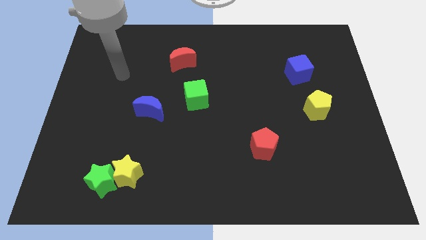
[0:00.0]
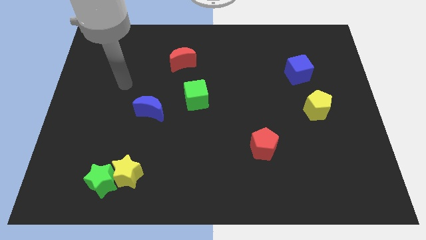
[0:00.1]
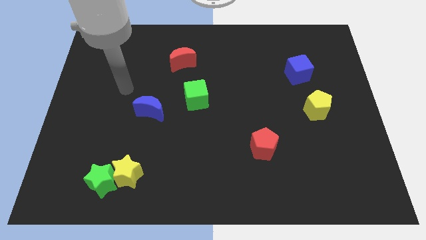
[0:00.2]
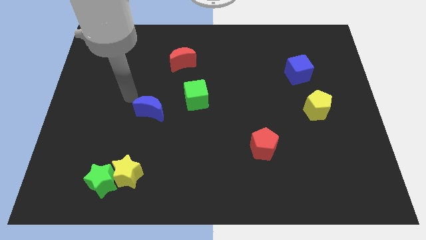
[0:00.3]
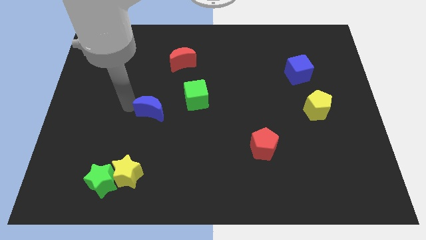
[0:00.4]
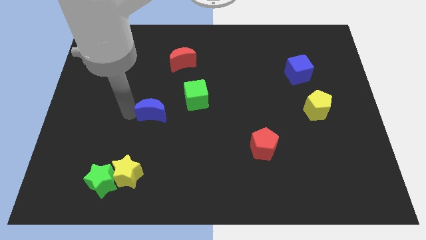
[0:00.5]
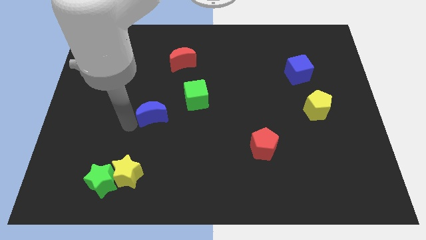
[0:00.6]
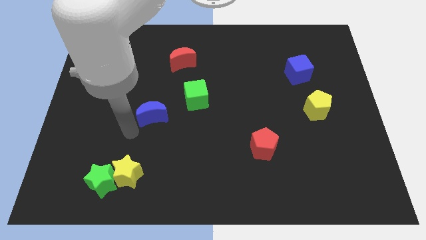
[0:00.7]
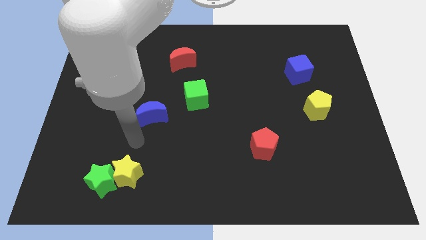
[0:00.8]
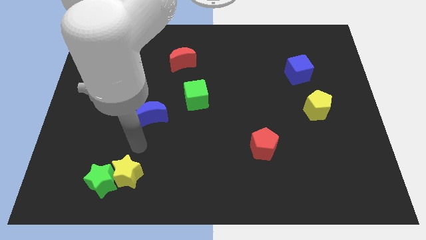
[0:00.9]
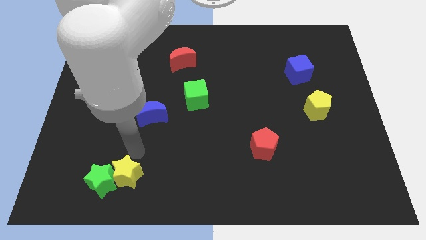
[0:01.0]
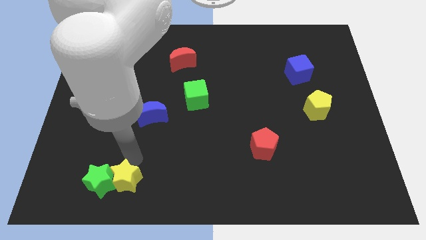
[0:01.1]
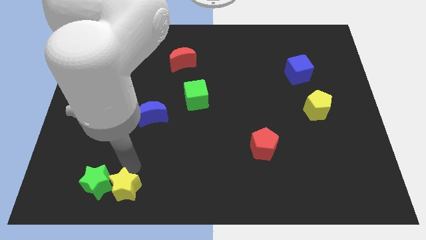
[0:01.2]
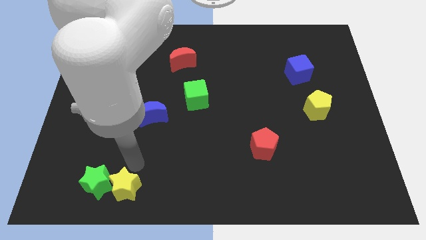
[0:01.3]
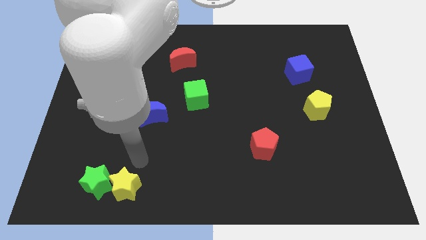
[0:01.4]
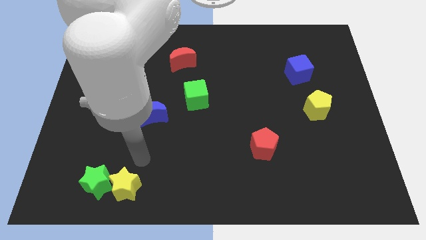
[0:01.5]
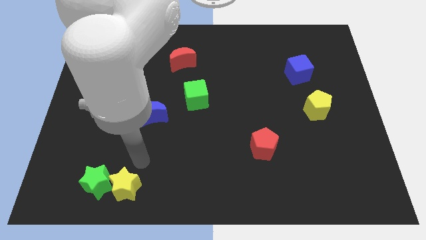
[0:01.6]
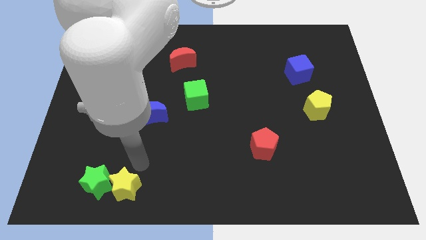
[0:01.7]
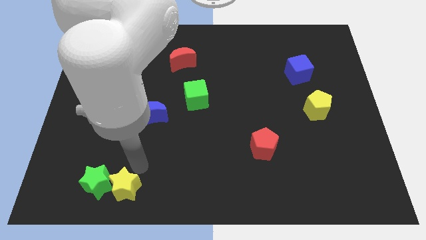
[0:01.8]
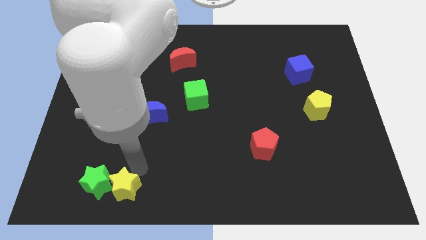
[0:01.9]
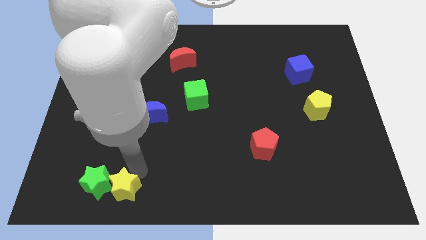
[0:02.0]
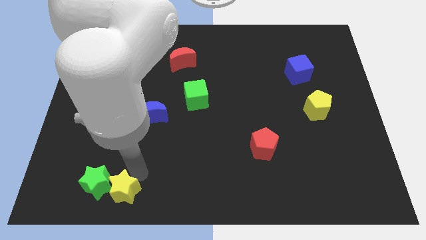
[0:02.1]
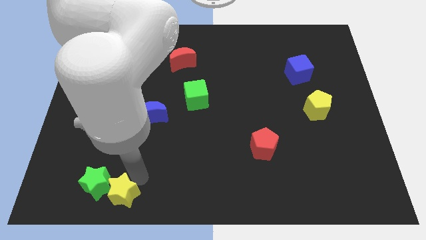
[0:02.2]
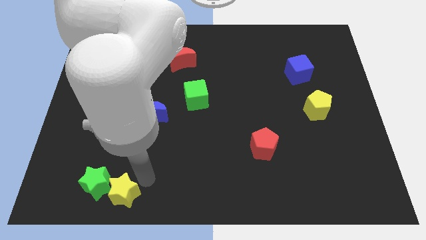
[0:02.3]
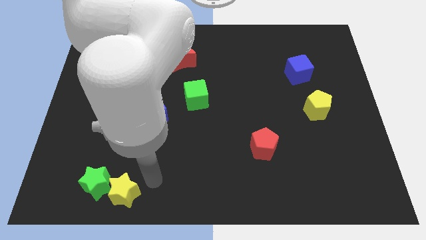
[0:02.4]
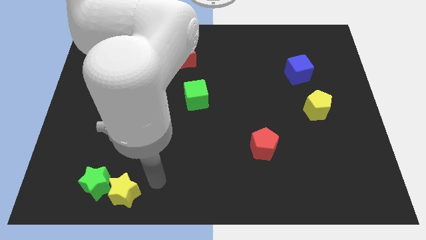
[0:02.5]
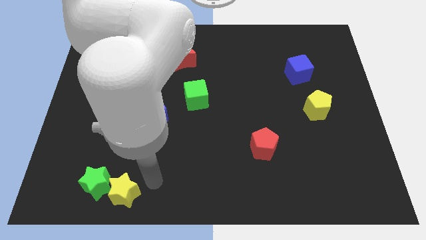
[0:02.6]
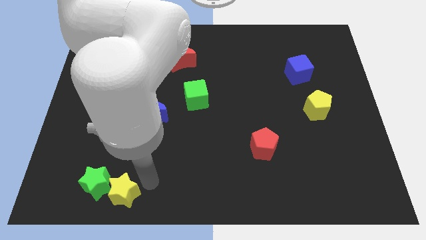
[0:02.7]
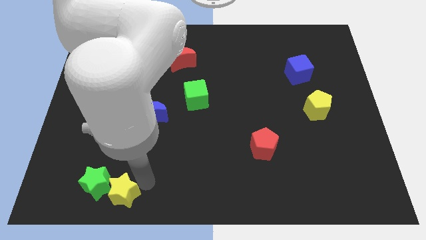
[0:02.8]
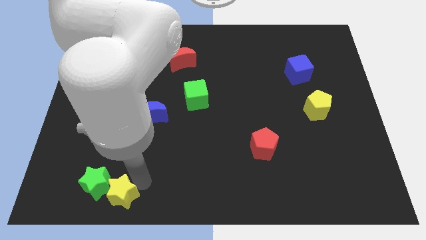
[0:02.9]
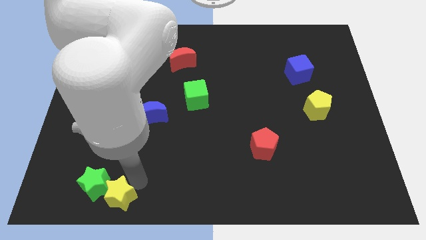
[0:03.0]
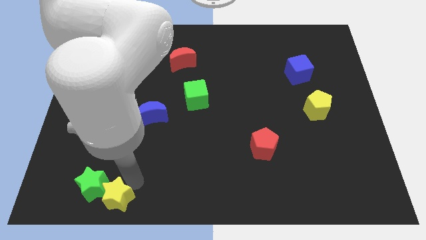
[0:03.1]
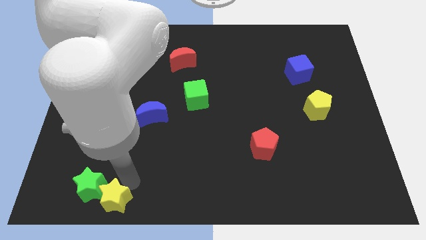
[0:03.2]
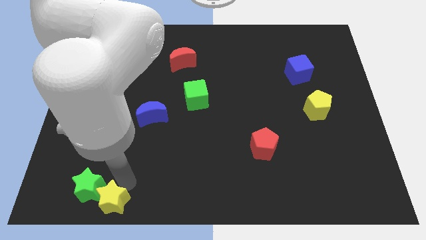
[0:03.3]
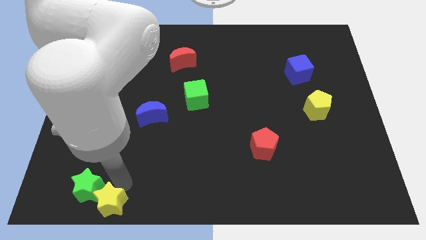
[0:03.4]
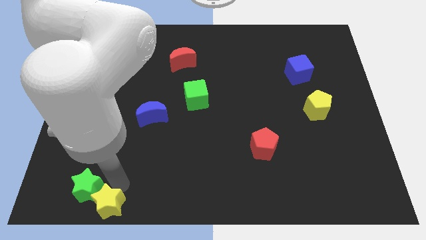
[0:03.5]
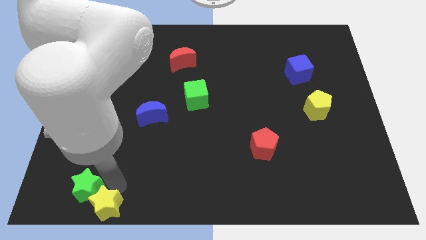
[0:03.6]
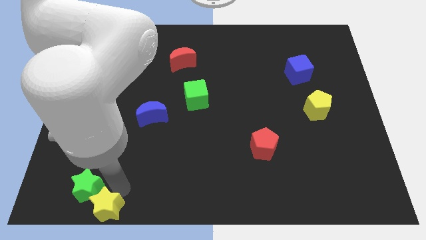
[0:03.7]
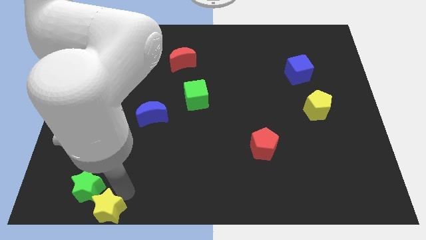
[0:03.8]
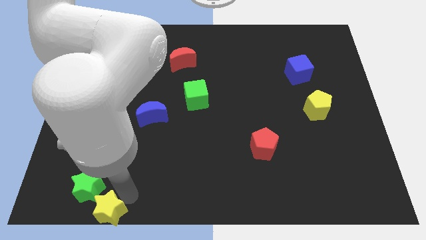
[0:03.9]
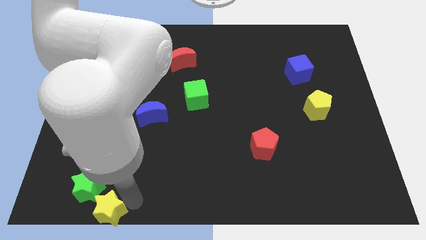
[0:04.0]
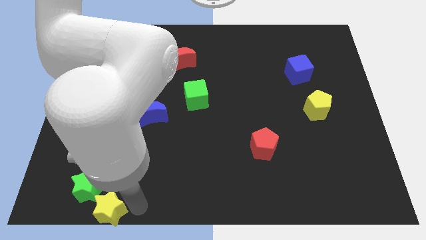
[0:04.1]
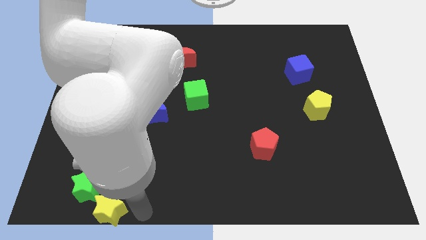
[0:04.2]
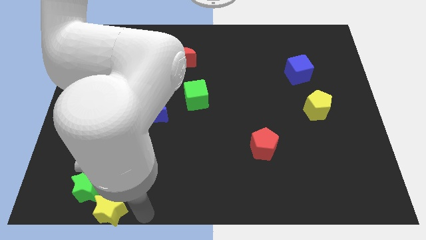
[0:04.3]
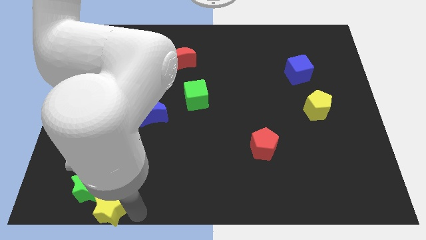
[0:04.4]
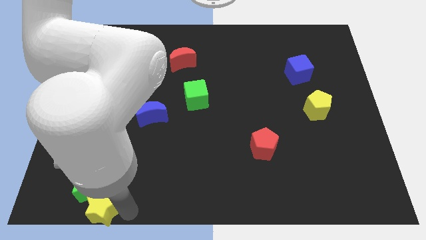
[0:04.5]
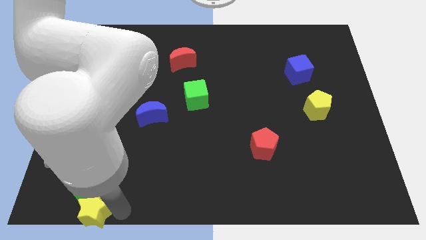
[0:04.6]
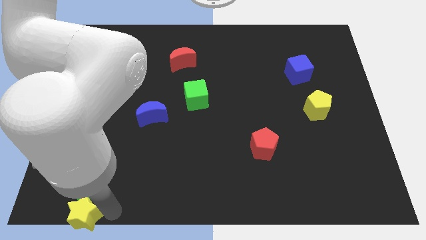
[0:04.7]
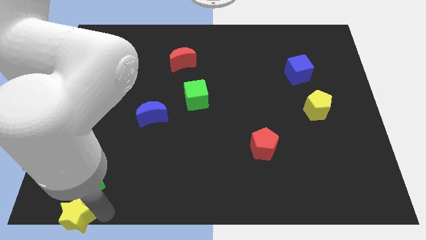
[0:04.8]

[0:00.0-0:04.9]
push the yellow star to the bottom left corner

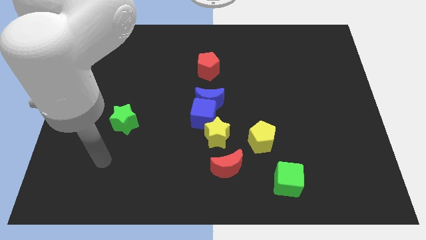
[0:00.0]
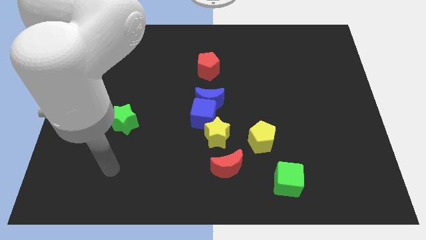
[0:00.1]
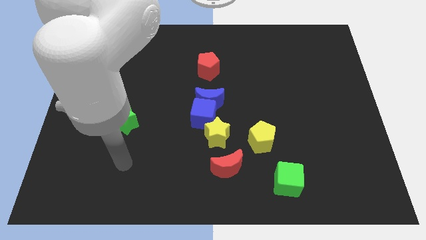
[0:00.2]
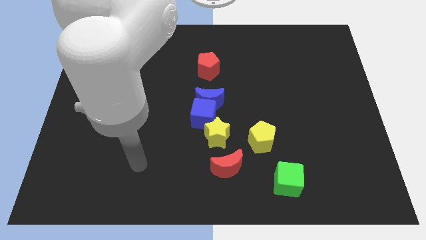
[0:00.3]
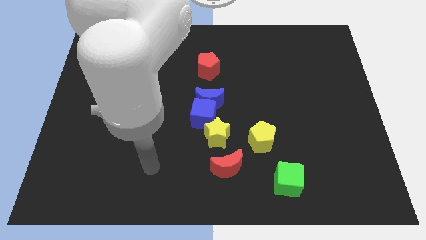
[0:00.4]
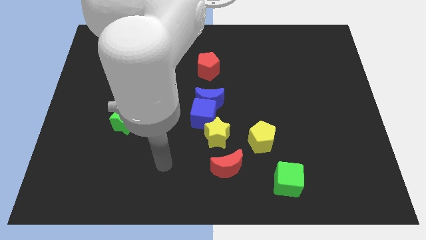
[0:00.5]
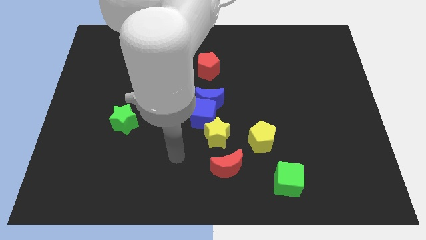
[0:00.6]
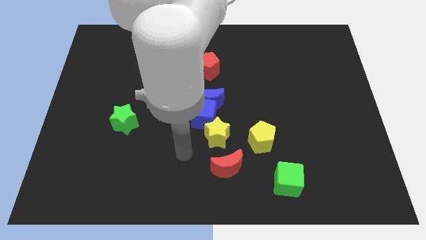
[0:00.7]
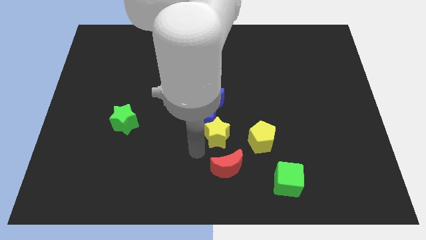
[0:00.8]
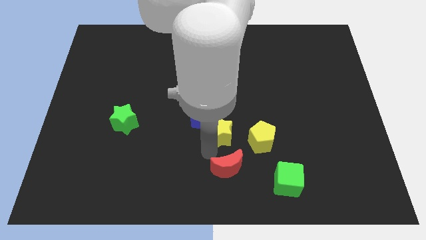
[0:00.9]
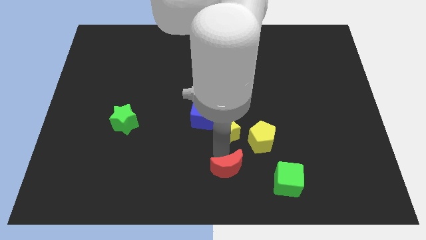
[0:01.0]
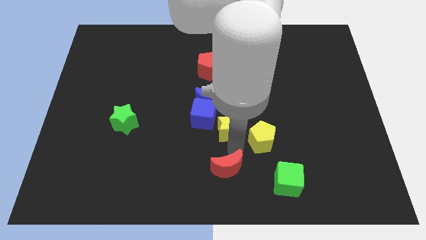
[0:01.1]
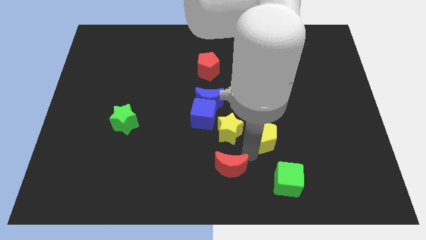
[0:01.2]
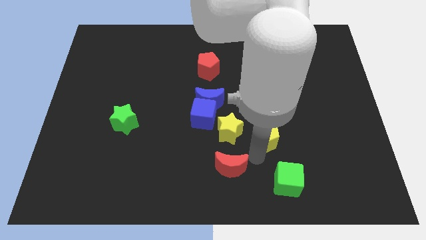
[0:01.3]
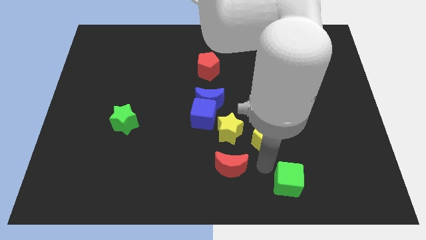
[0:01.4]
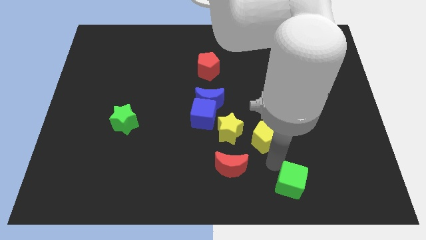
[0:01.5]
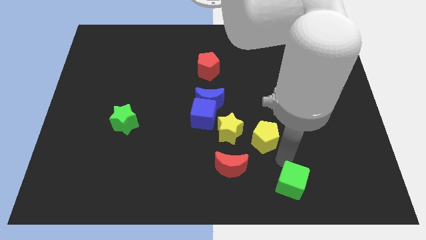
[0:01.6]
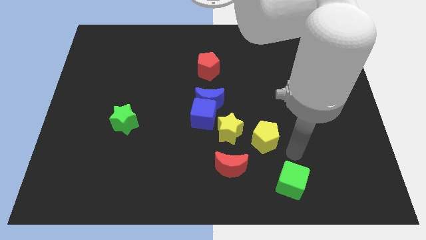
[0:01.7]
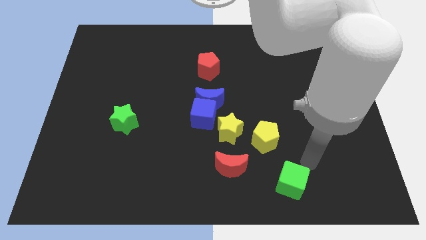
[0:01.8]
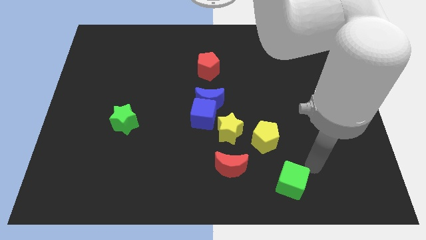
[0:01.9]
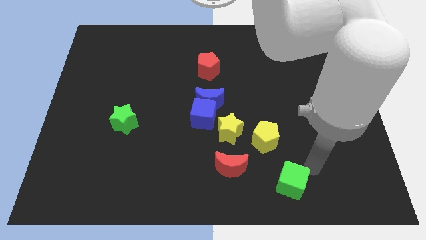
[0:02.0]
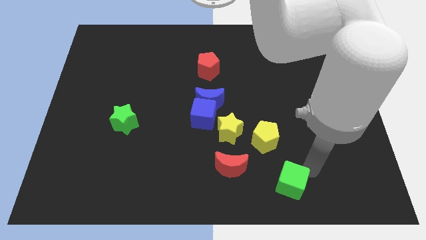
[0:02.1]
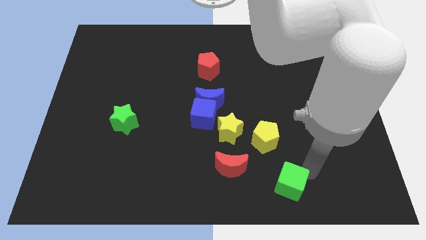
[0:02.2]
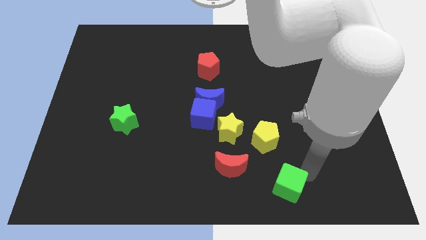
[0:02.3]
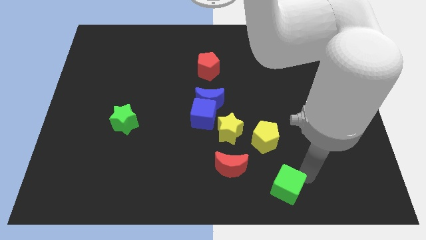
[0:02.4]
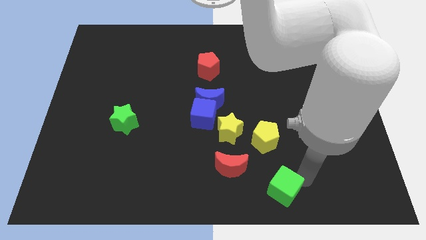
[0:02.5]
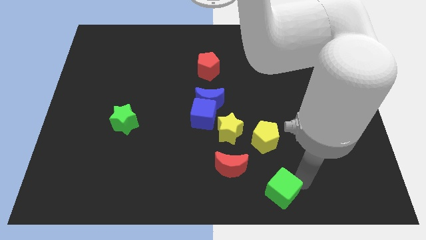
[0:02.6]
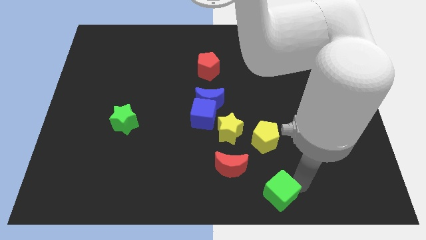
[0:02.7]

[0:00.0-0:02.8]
put the green cube to the bottom
